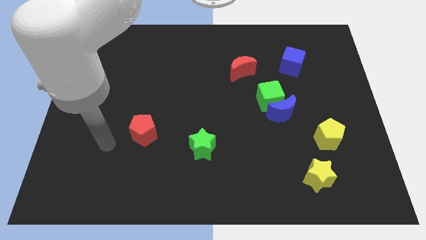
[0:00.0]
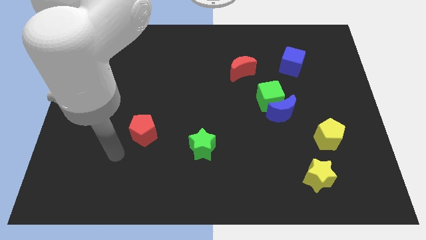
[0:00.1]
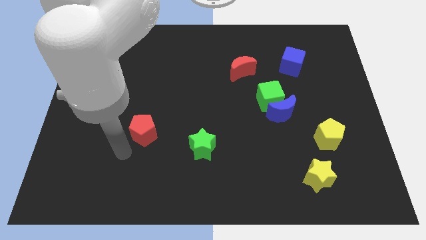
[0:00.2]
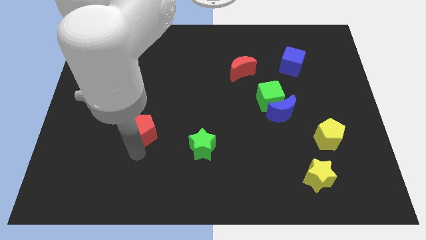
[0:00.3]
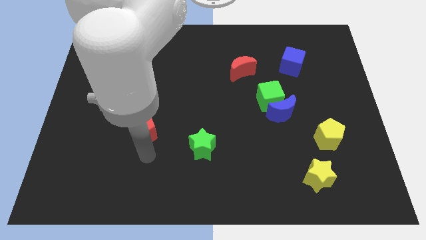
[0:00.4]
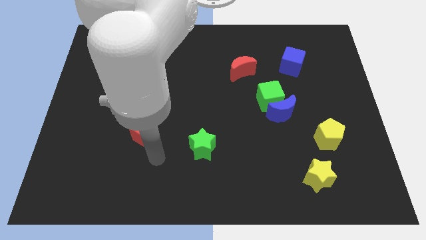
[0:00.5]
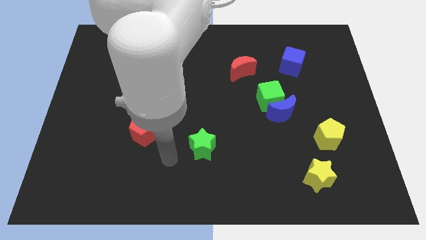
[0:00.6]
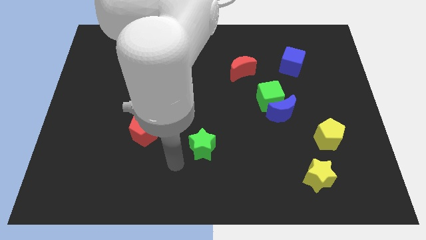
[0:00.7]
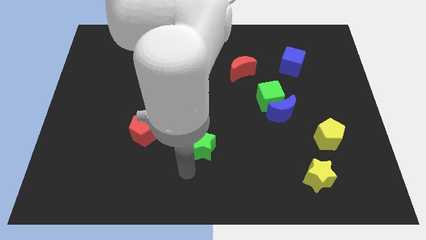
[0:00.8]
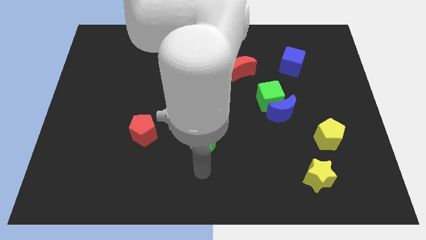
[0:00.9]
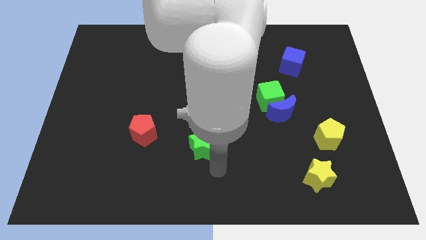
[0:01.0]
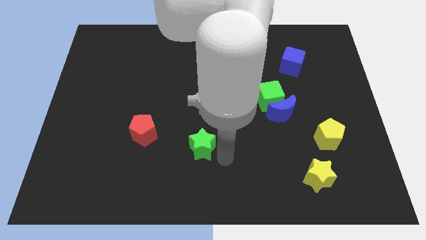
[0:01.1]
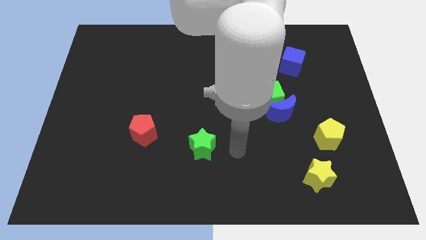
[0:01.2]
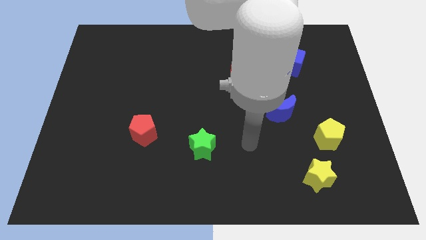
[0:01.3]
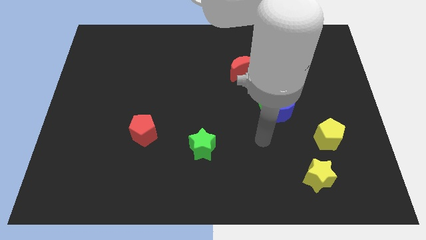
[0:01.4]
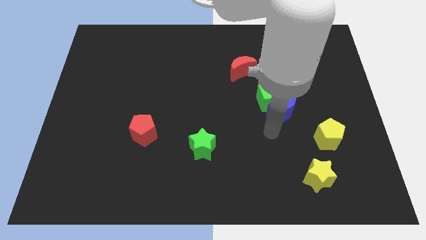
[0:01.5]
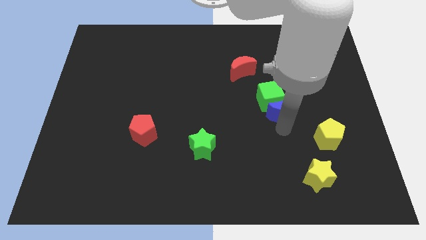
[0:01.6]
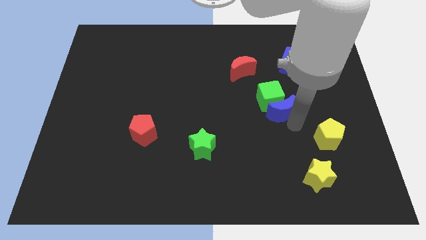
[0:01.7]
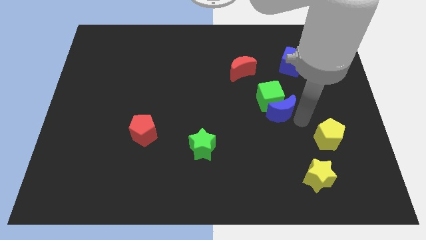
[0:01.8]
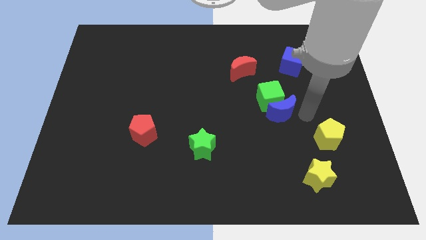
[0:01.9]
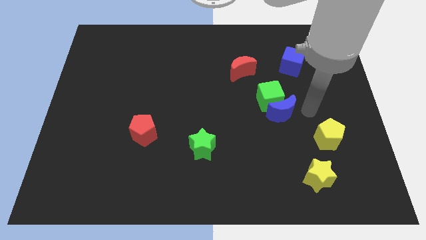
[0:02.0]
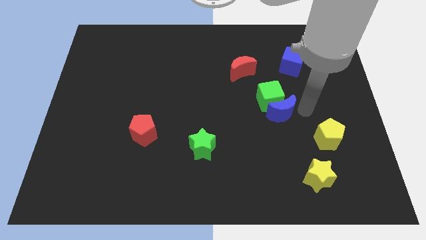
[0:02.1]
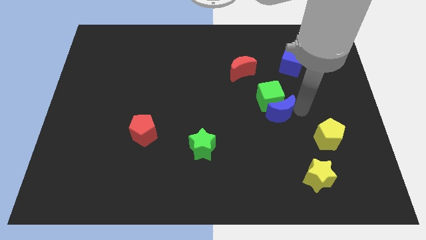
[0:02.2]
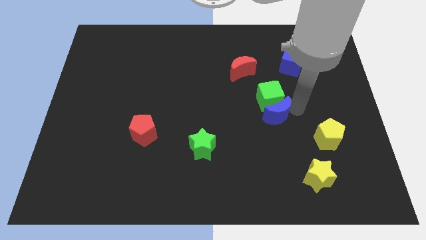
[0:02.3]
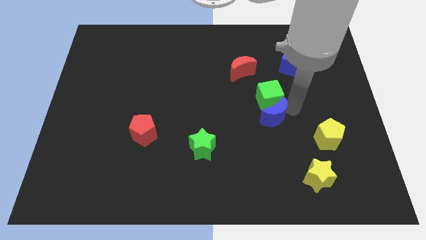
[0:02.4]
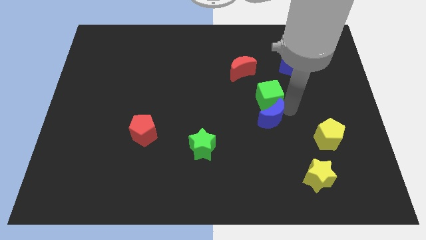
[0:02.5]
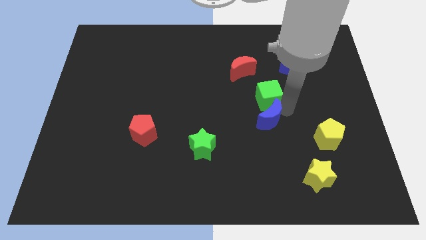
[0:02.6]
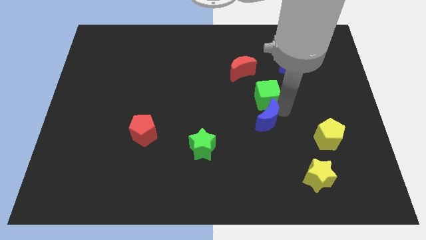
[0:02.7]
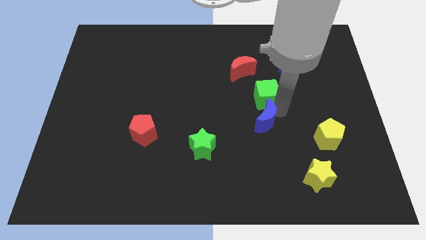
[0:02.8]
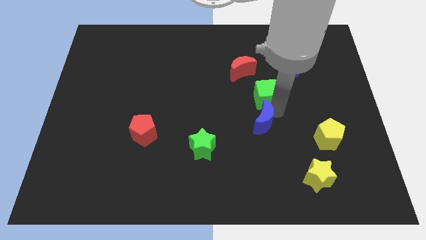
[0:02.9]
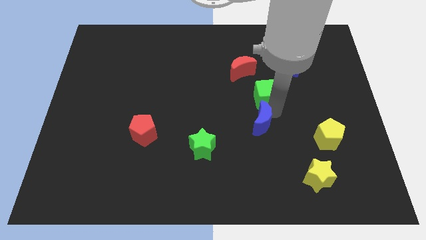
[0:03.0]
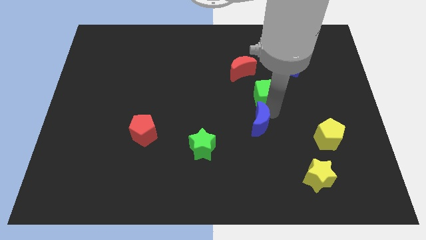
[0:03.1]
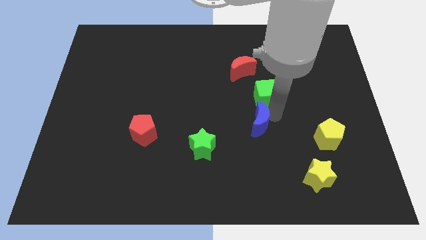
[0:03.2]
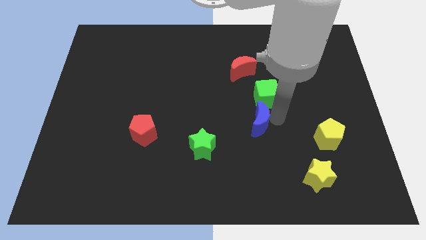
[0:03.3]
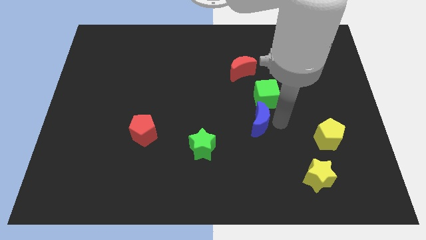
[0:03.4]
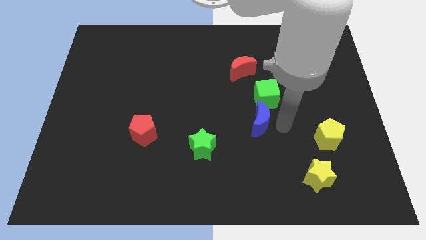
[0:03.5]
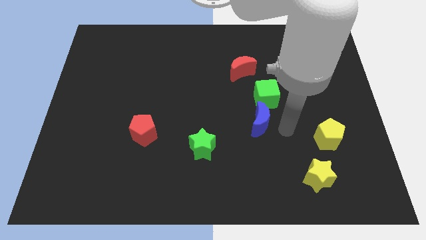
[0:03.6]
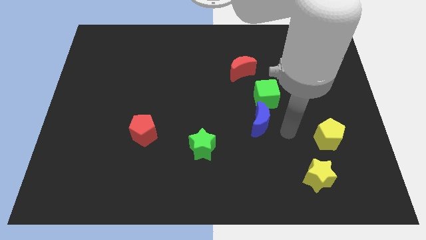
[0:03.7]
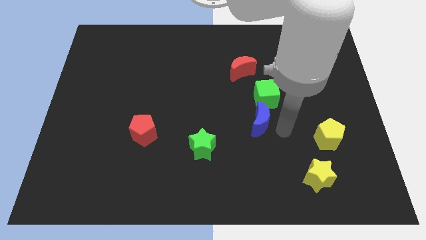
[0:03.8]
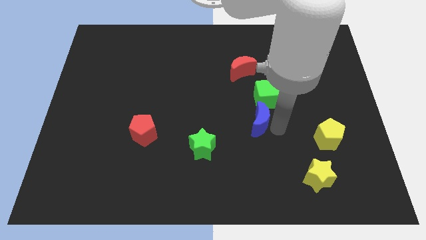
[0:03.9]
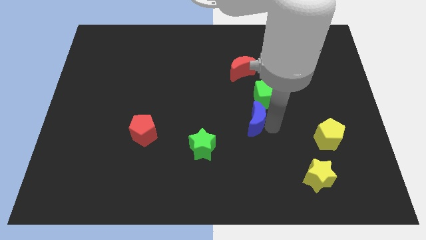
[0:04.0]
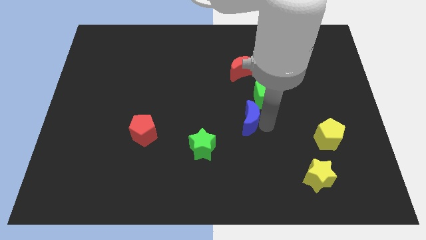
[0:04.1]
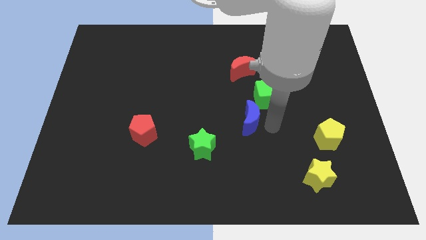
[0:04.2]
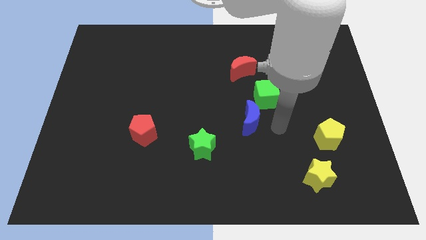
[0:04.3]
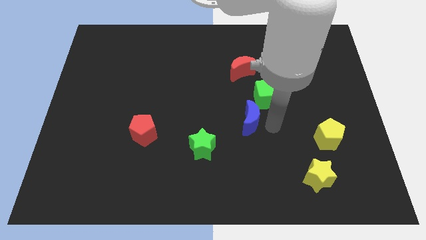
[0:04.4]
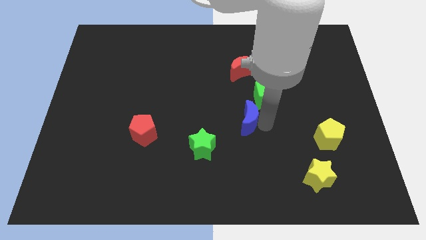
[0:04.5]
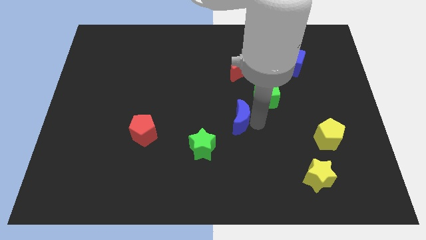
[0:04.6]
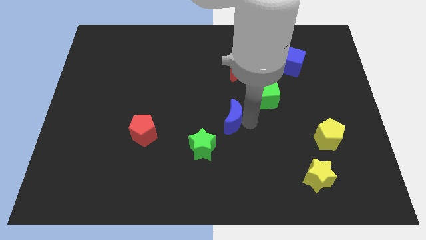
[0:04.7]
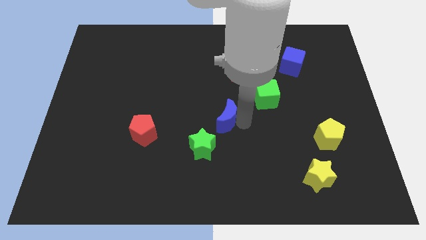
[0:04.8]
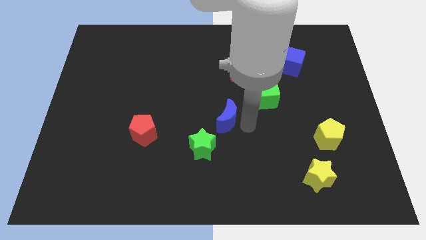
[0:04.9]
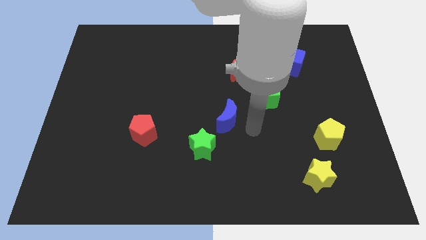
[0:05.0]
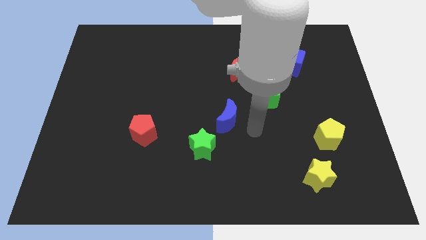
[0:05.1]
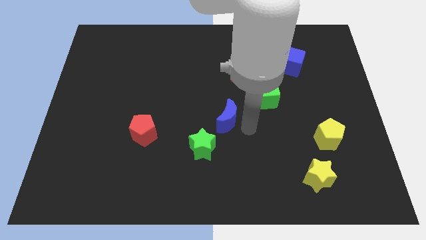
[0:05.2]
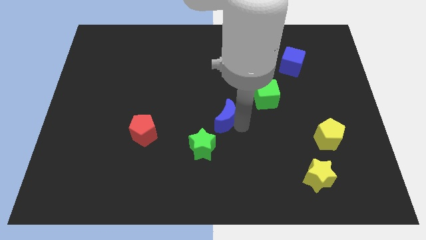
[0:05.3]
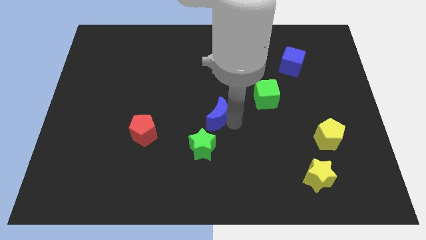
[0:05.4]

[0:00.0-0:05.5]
slide the blue moon above the green star

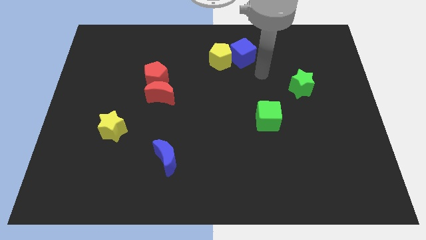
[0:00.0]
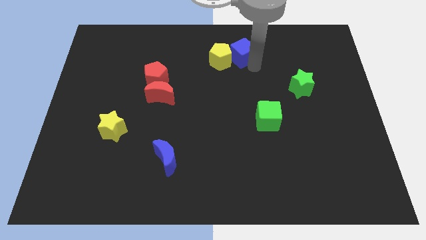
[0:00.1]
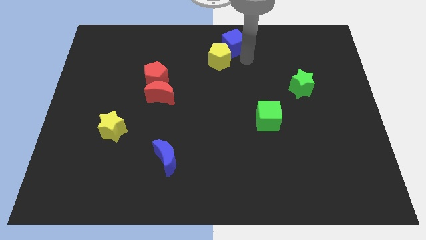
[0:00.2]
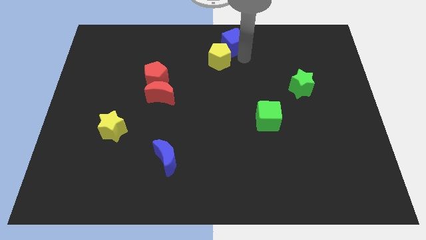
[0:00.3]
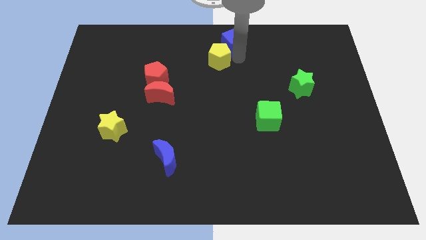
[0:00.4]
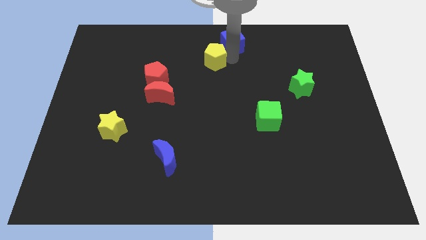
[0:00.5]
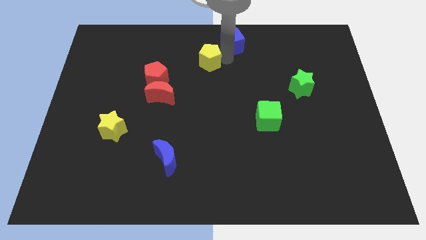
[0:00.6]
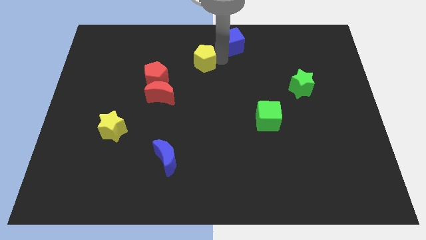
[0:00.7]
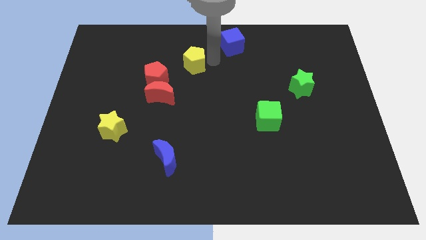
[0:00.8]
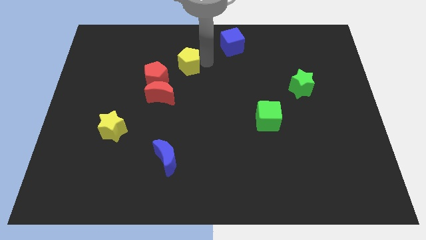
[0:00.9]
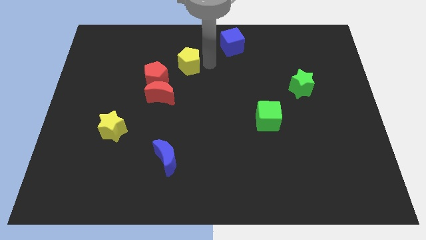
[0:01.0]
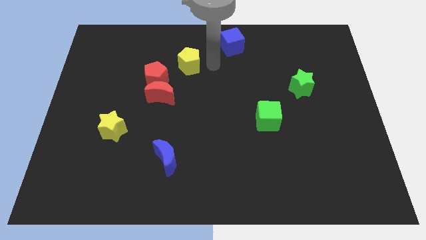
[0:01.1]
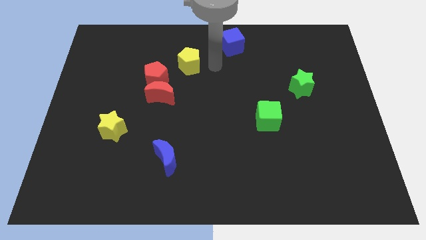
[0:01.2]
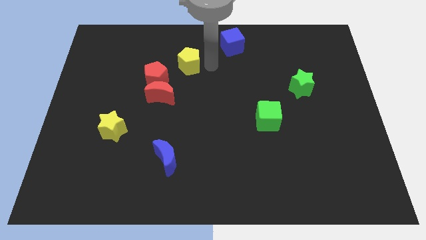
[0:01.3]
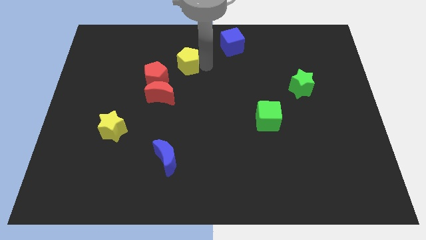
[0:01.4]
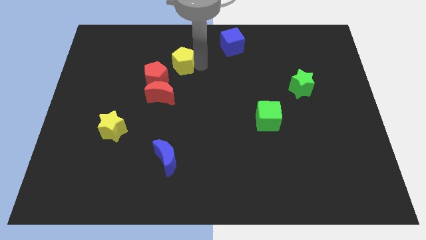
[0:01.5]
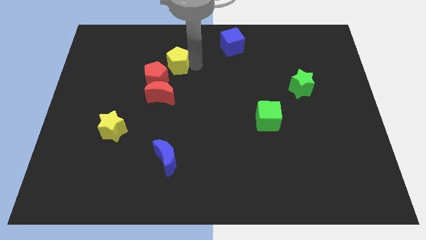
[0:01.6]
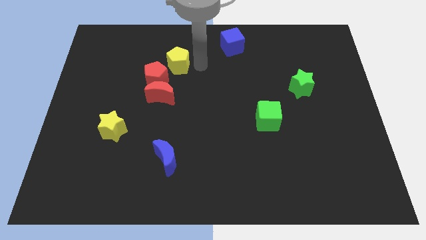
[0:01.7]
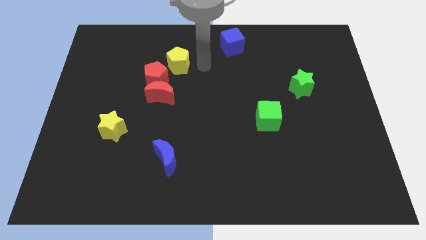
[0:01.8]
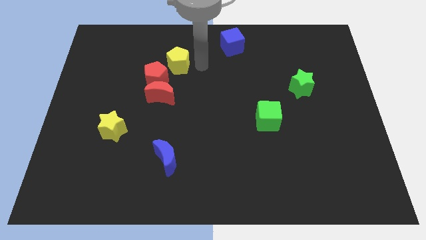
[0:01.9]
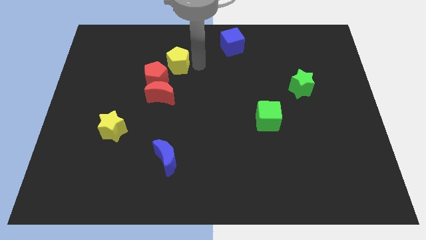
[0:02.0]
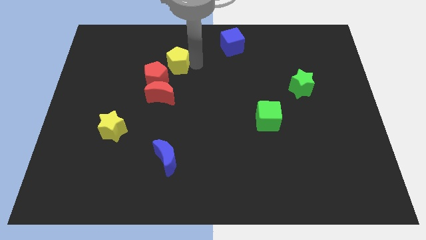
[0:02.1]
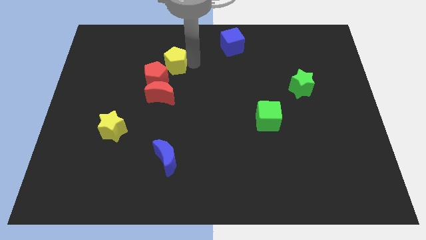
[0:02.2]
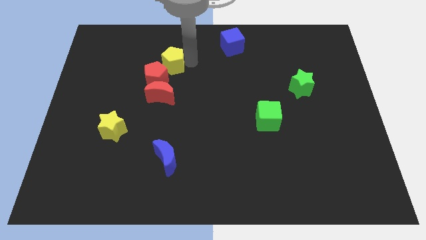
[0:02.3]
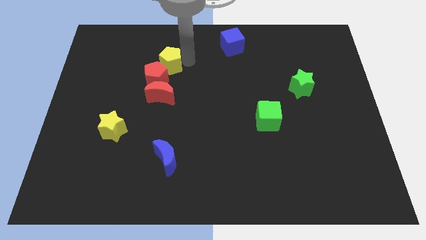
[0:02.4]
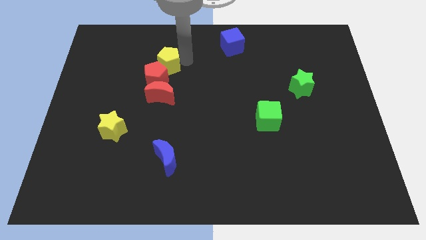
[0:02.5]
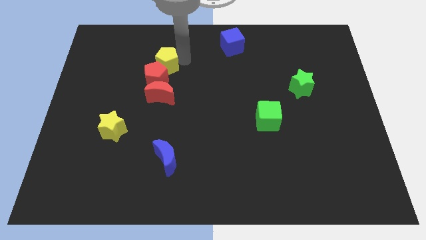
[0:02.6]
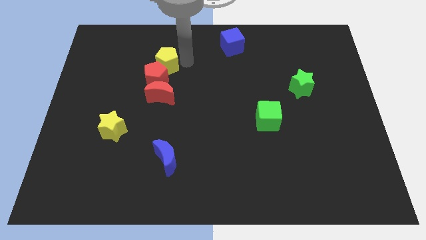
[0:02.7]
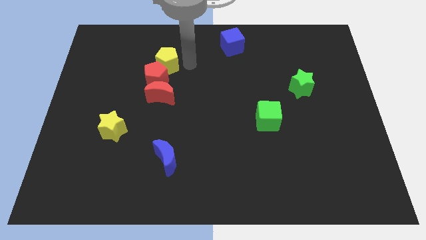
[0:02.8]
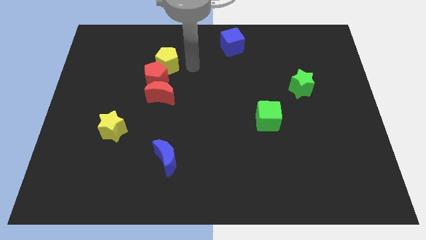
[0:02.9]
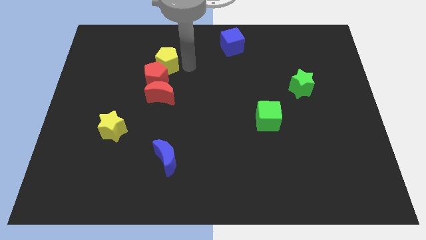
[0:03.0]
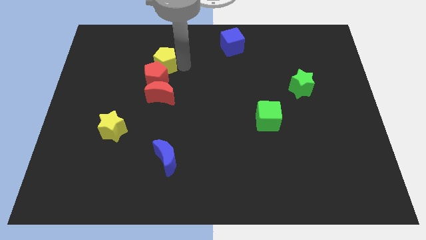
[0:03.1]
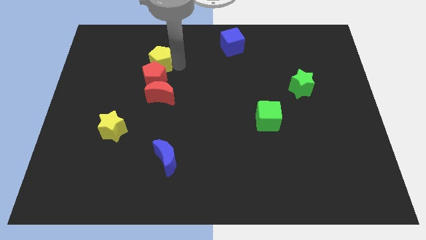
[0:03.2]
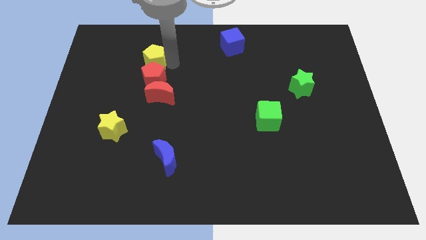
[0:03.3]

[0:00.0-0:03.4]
slide the yellow pentagon diagonally up and to the left of the red pentagon
